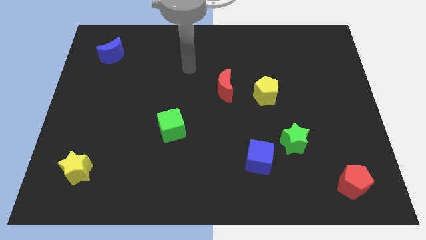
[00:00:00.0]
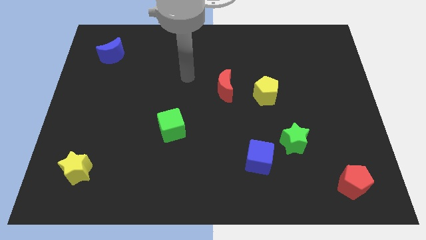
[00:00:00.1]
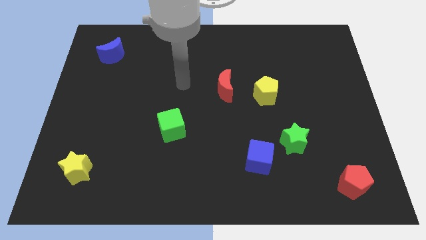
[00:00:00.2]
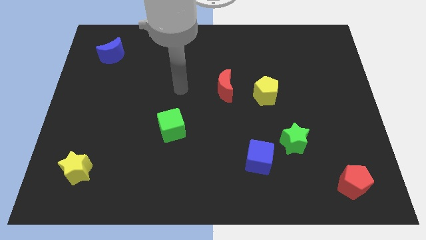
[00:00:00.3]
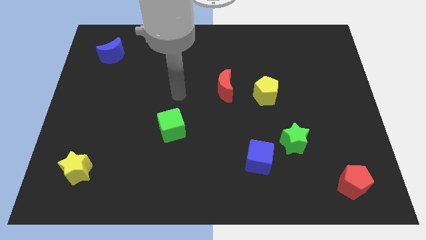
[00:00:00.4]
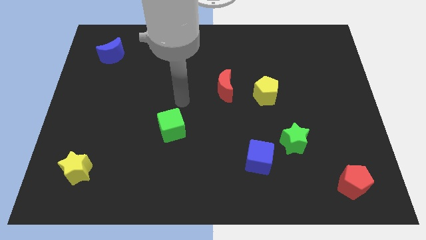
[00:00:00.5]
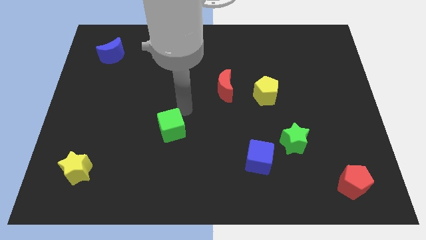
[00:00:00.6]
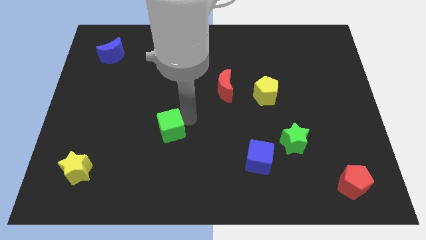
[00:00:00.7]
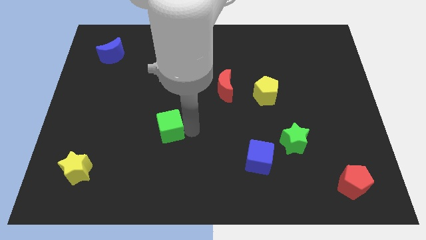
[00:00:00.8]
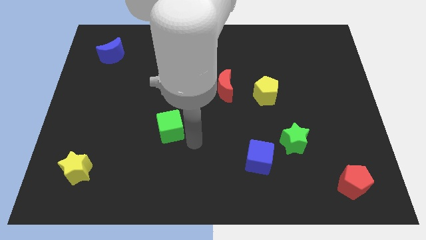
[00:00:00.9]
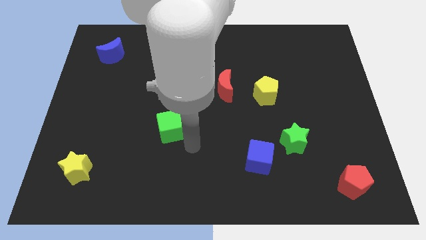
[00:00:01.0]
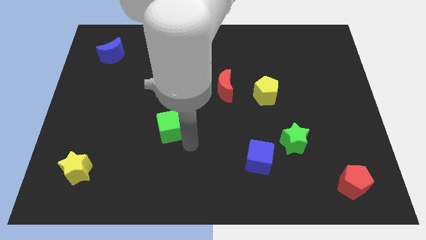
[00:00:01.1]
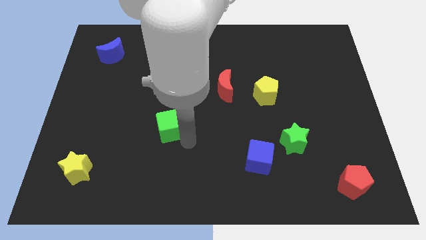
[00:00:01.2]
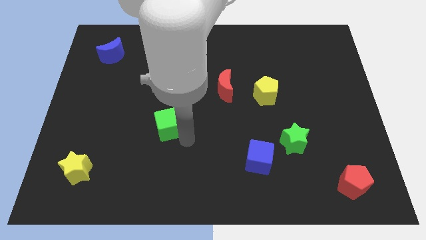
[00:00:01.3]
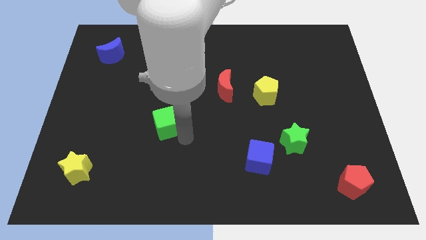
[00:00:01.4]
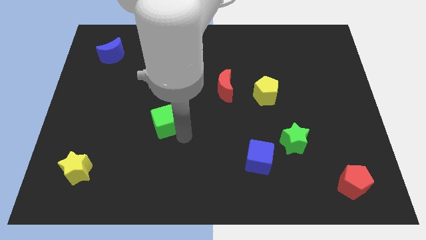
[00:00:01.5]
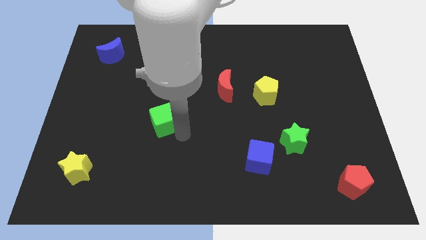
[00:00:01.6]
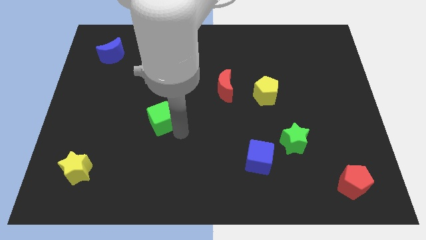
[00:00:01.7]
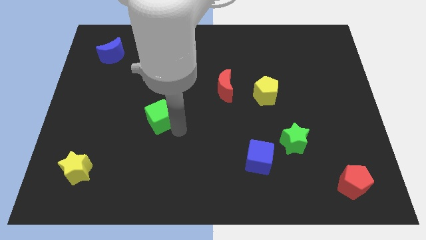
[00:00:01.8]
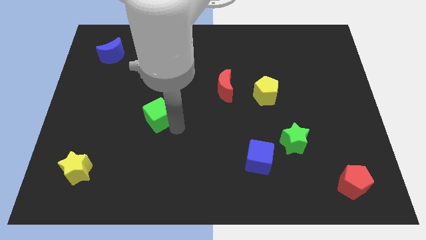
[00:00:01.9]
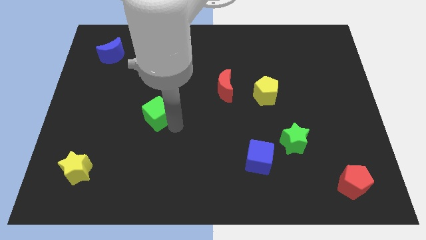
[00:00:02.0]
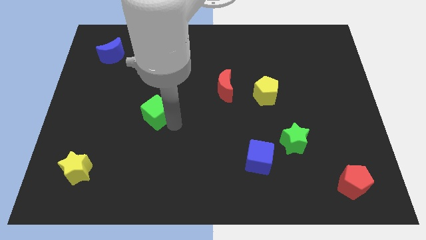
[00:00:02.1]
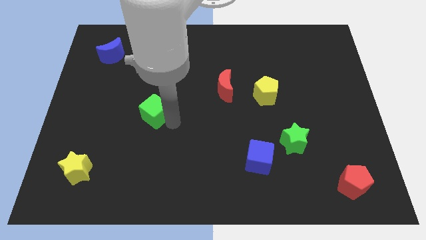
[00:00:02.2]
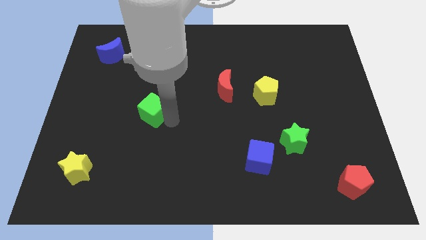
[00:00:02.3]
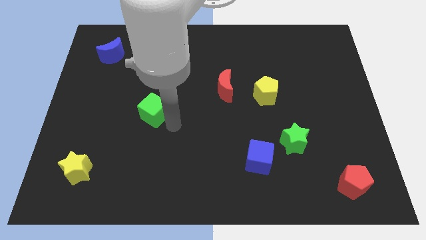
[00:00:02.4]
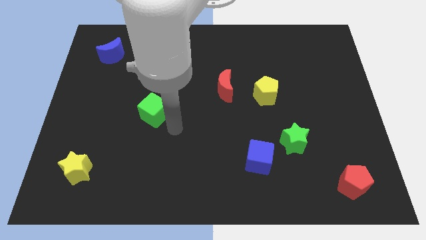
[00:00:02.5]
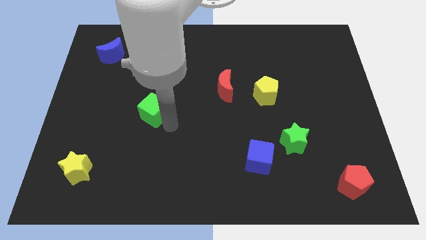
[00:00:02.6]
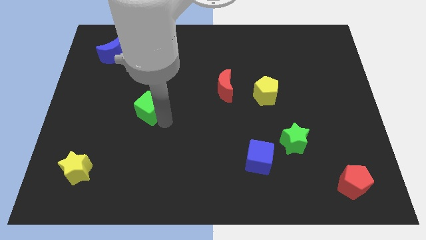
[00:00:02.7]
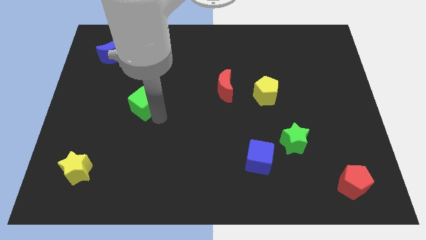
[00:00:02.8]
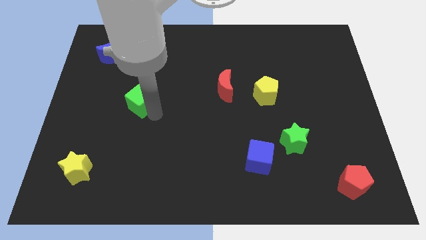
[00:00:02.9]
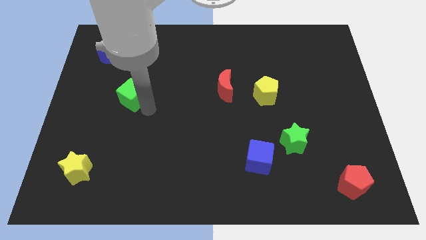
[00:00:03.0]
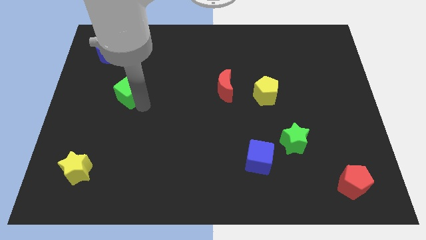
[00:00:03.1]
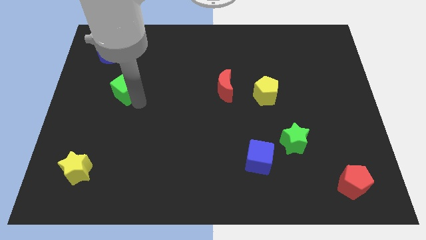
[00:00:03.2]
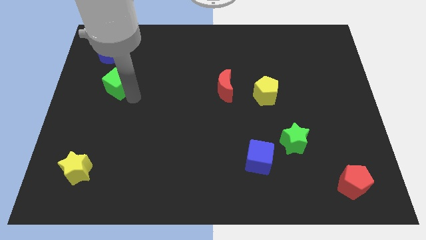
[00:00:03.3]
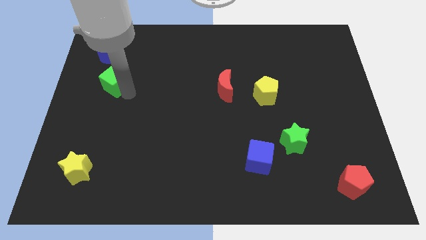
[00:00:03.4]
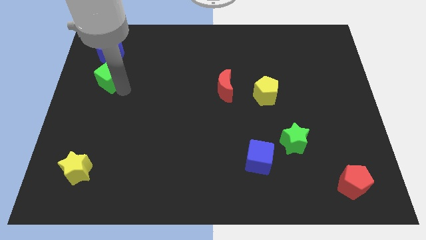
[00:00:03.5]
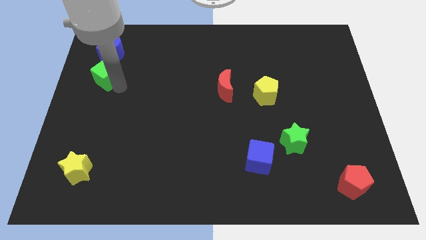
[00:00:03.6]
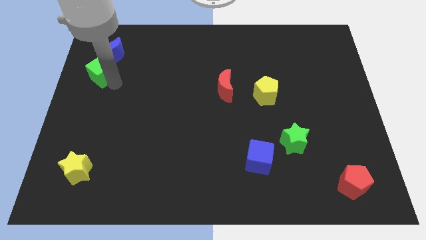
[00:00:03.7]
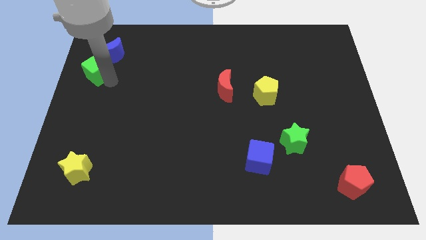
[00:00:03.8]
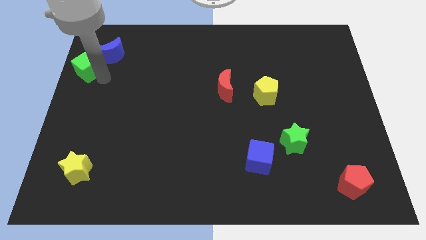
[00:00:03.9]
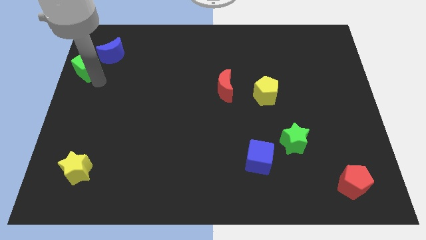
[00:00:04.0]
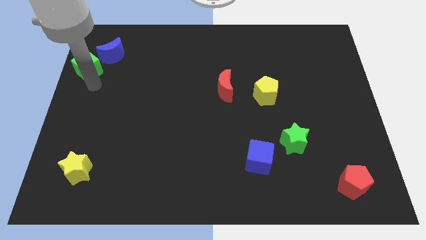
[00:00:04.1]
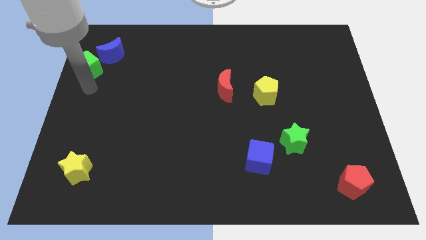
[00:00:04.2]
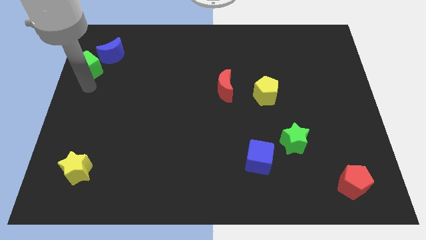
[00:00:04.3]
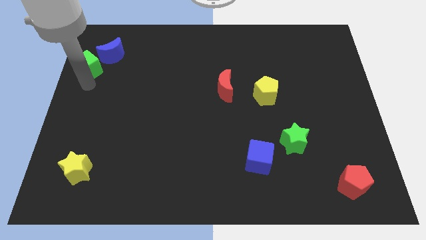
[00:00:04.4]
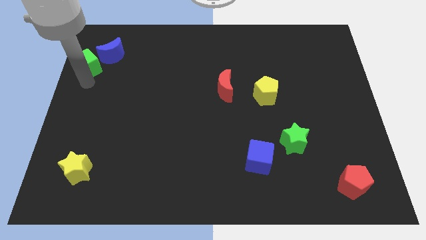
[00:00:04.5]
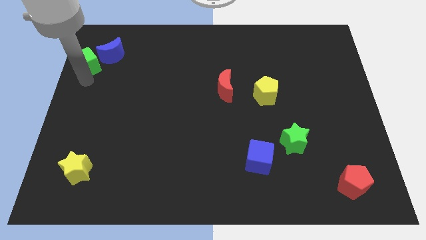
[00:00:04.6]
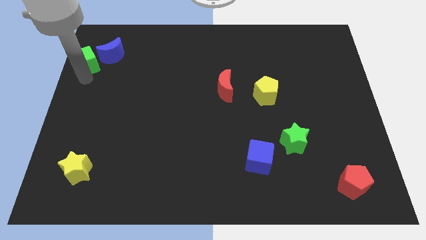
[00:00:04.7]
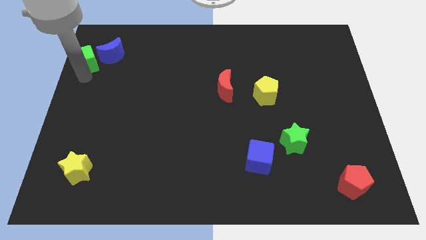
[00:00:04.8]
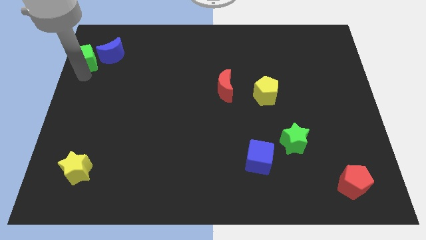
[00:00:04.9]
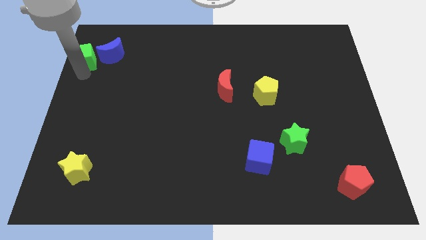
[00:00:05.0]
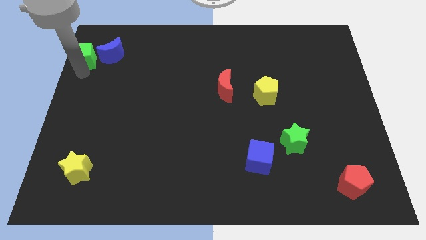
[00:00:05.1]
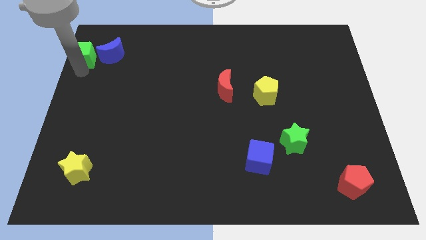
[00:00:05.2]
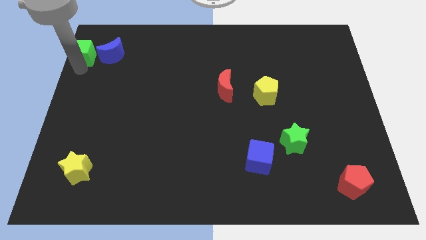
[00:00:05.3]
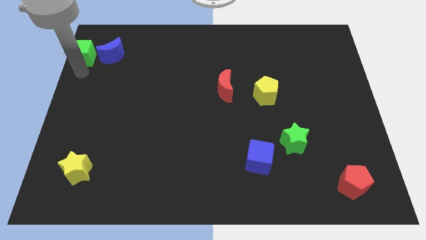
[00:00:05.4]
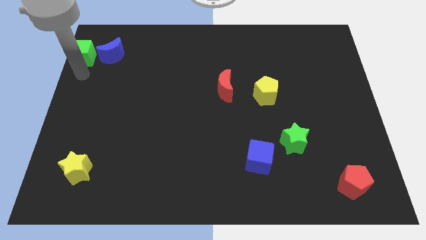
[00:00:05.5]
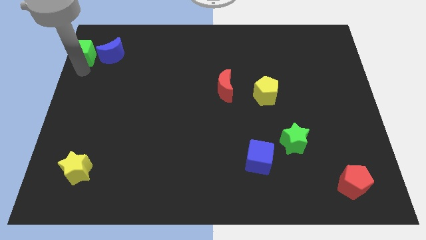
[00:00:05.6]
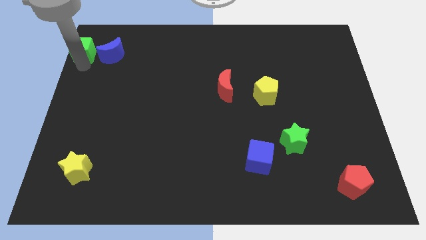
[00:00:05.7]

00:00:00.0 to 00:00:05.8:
put the green cube to the top left of the board
